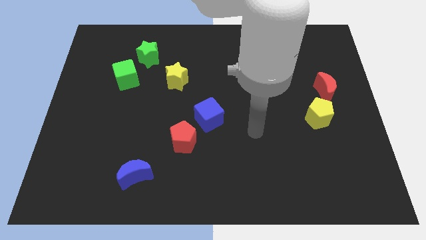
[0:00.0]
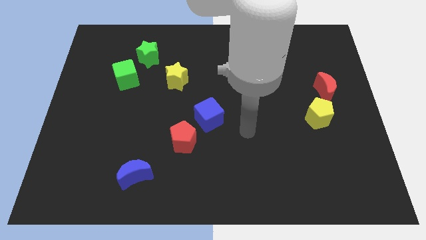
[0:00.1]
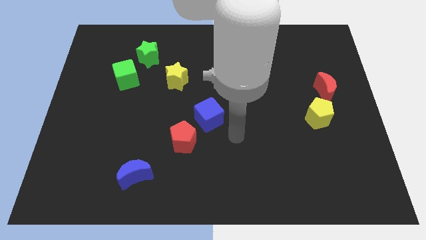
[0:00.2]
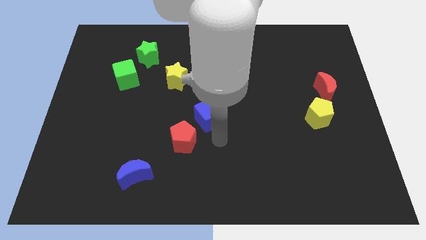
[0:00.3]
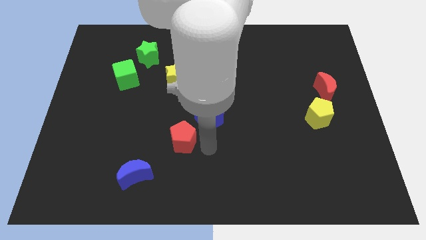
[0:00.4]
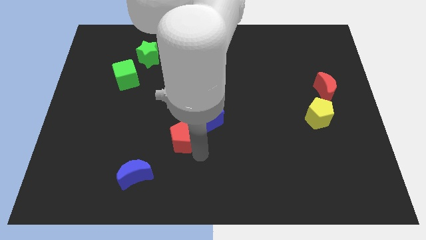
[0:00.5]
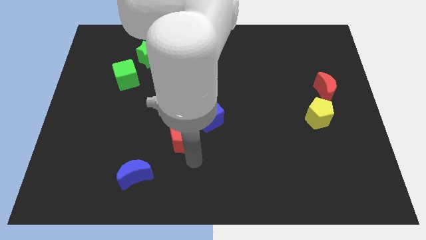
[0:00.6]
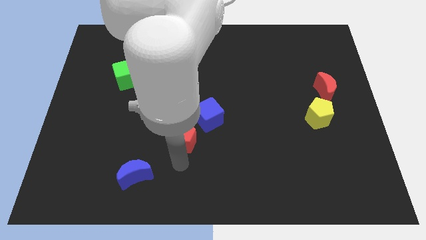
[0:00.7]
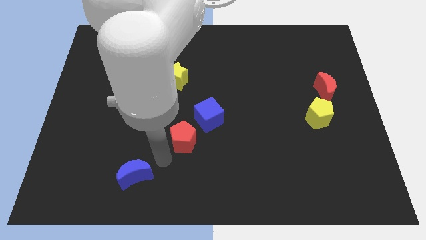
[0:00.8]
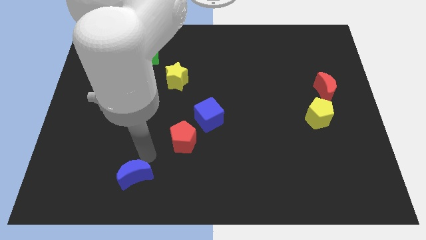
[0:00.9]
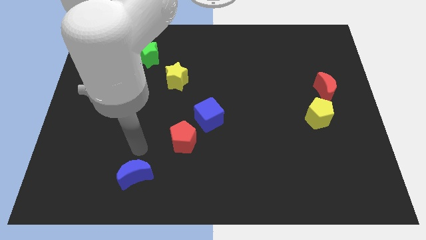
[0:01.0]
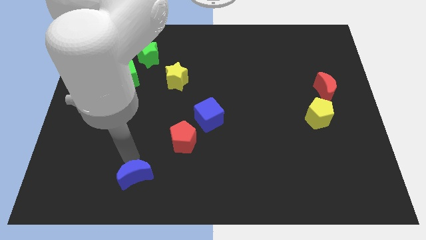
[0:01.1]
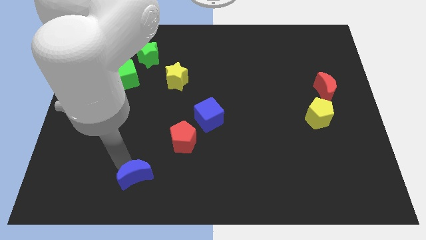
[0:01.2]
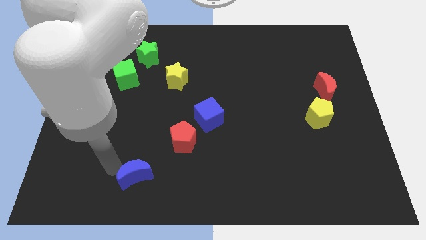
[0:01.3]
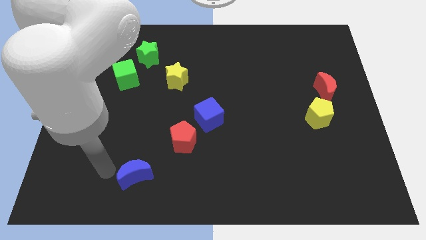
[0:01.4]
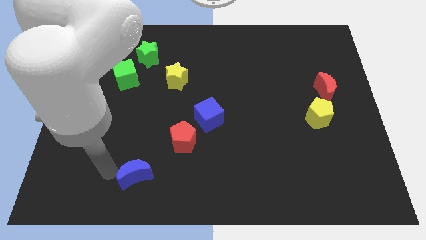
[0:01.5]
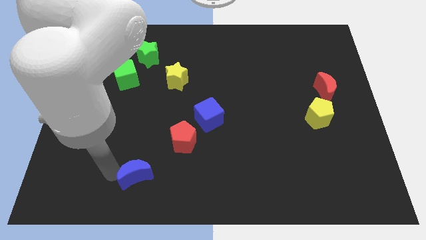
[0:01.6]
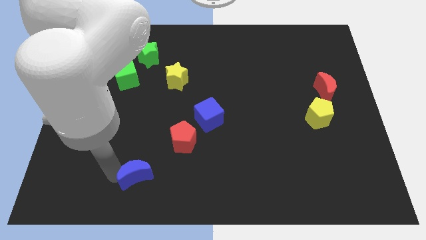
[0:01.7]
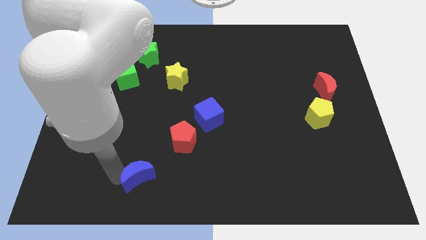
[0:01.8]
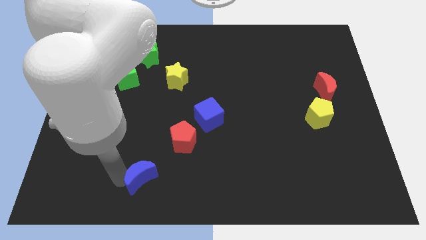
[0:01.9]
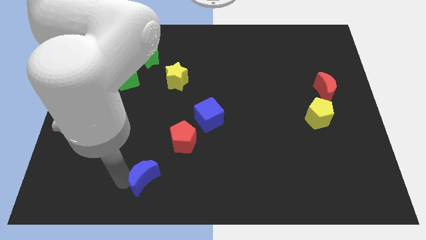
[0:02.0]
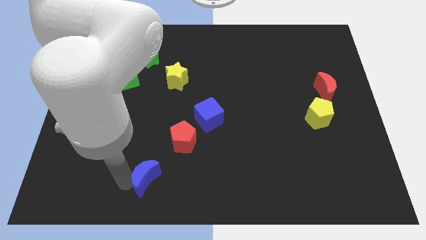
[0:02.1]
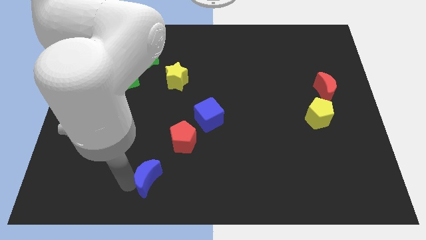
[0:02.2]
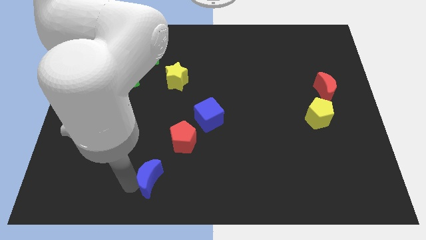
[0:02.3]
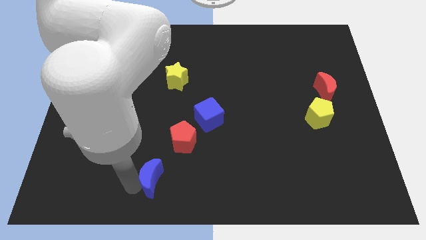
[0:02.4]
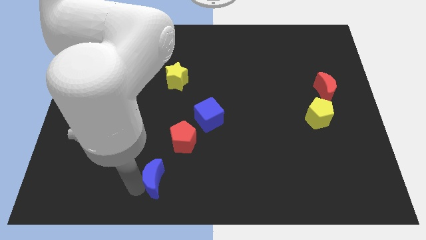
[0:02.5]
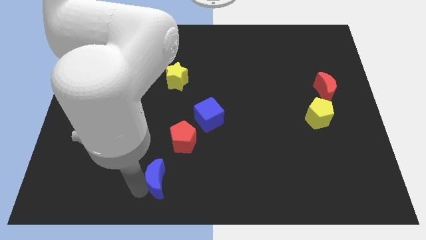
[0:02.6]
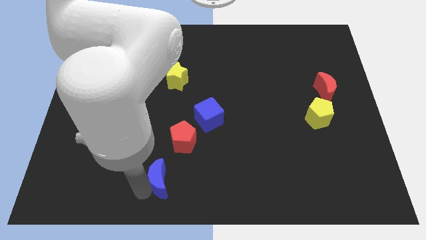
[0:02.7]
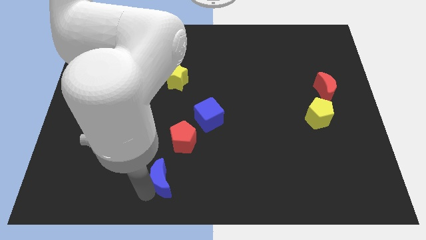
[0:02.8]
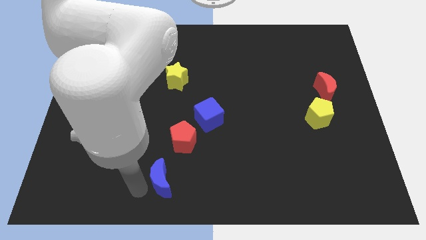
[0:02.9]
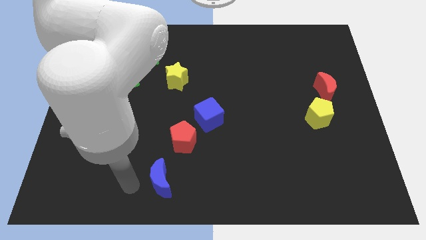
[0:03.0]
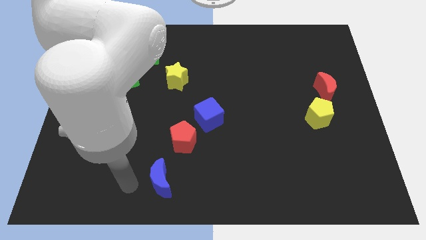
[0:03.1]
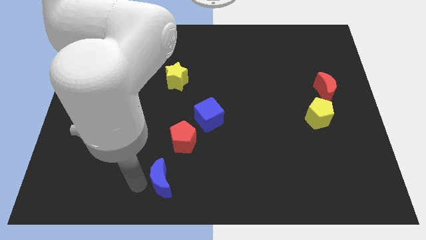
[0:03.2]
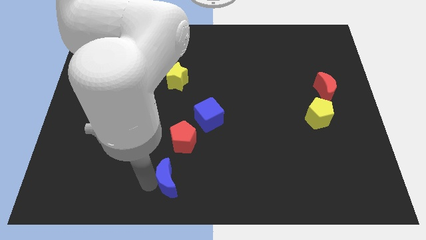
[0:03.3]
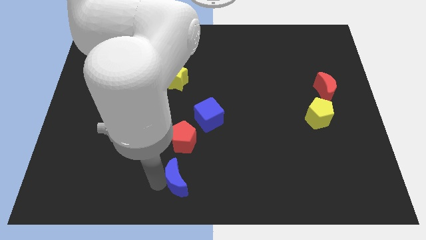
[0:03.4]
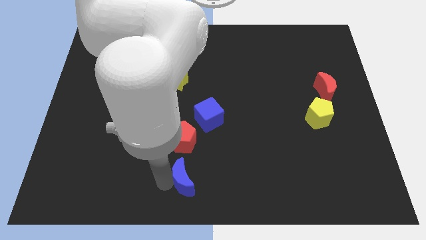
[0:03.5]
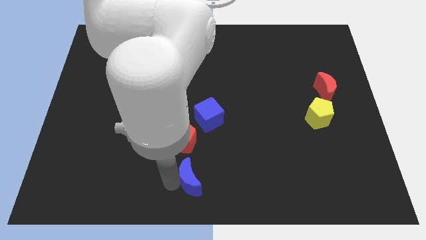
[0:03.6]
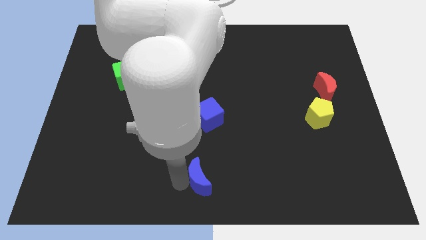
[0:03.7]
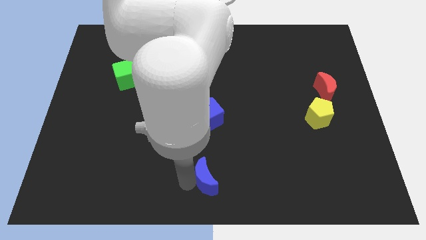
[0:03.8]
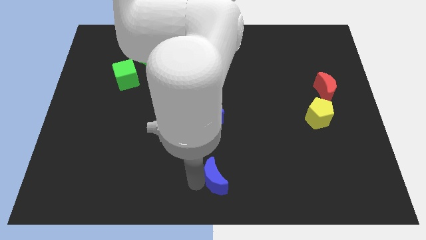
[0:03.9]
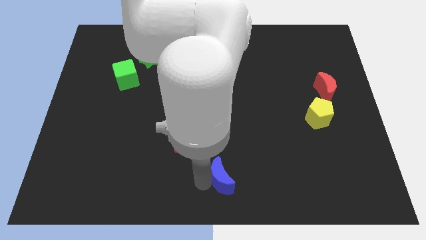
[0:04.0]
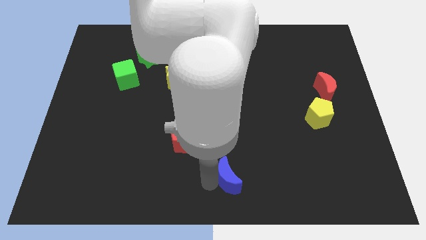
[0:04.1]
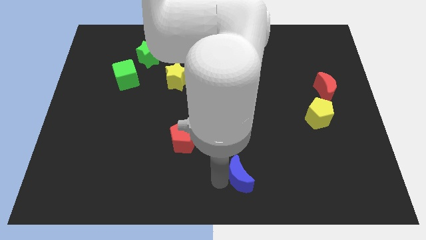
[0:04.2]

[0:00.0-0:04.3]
push the blue moon to the right

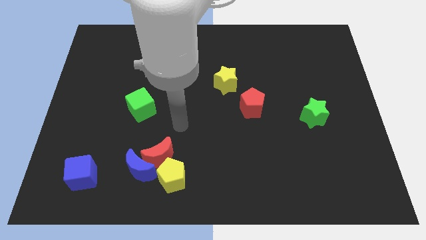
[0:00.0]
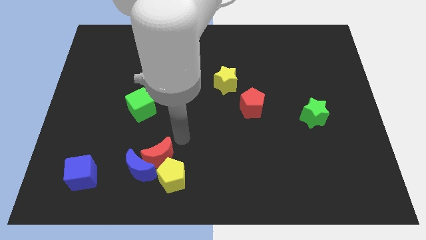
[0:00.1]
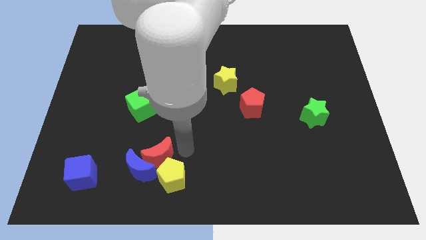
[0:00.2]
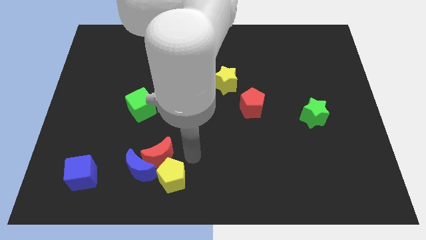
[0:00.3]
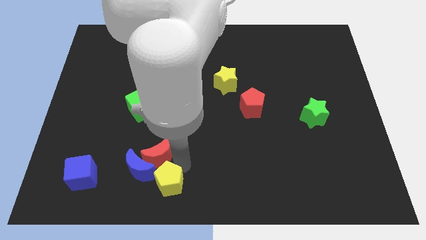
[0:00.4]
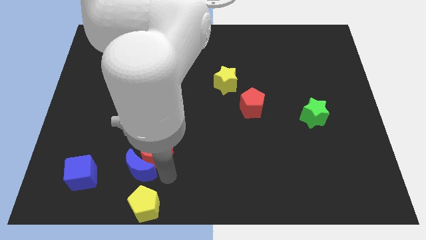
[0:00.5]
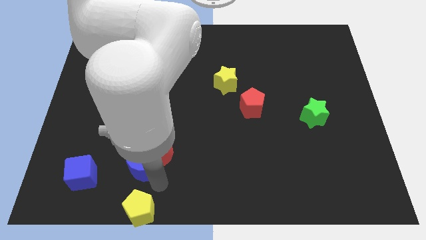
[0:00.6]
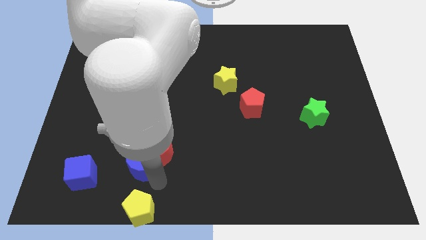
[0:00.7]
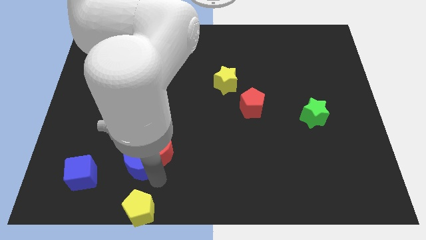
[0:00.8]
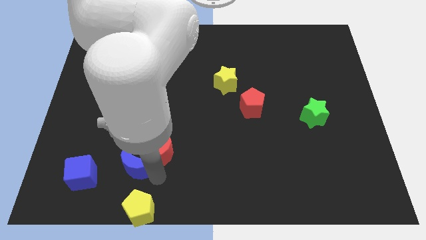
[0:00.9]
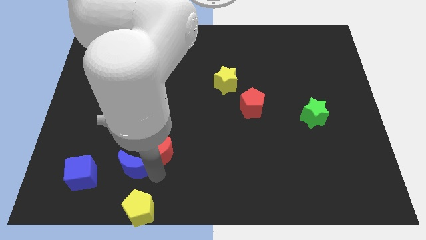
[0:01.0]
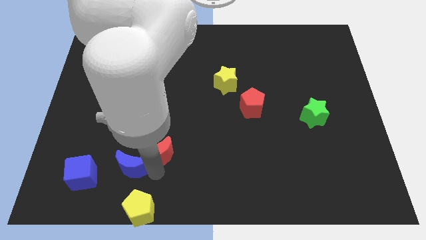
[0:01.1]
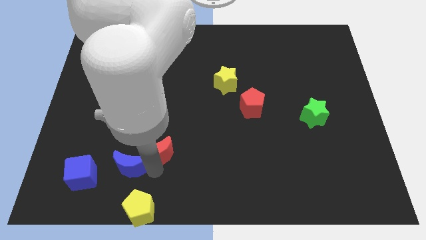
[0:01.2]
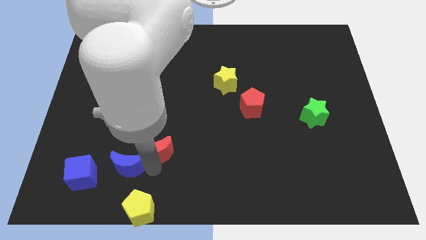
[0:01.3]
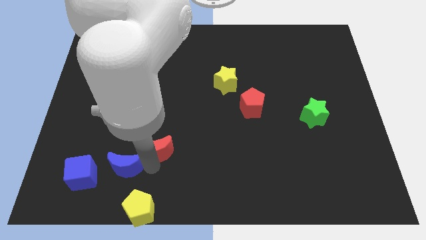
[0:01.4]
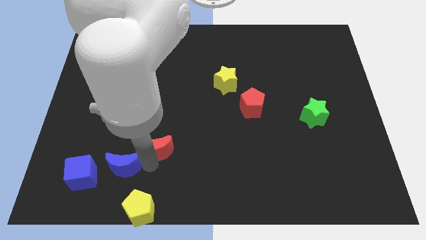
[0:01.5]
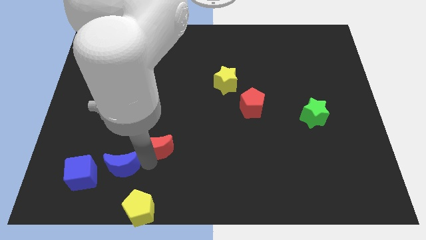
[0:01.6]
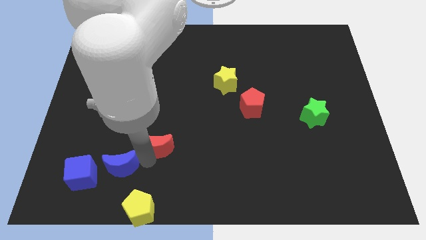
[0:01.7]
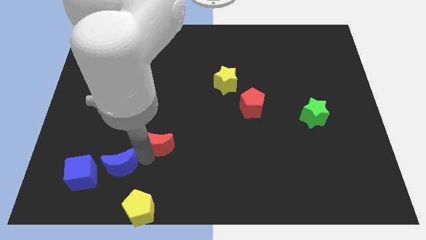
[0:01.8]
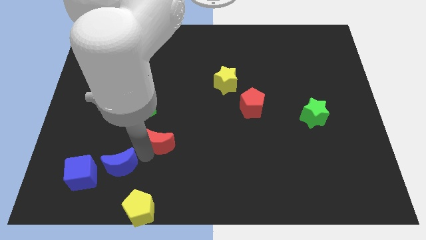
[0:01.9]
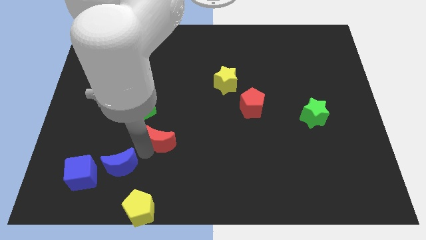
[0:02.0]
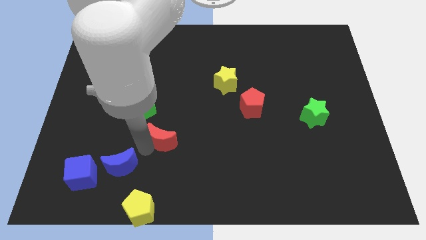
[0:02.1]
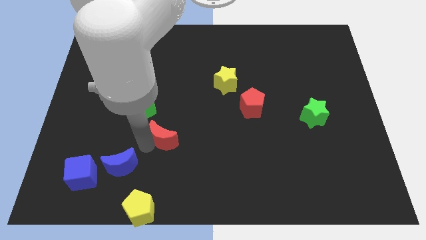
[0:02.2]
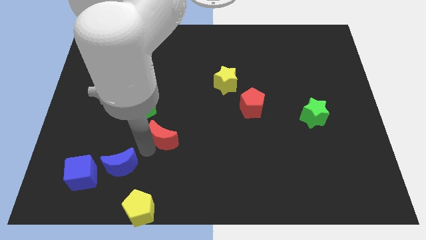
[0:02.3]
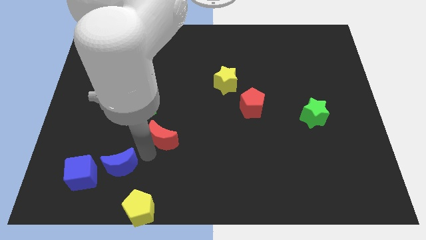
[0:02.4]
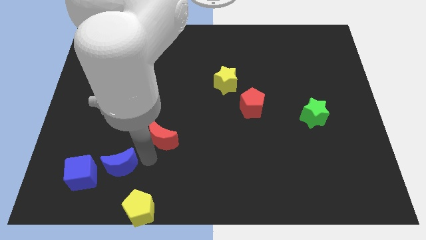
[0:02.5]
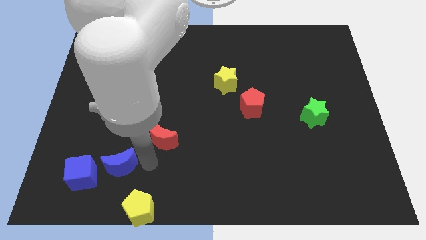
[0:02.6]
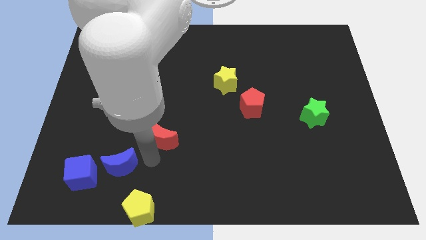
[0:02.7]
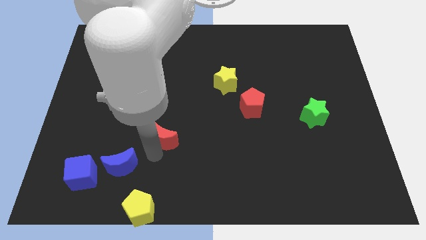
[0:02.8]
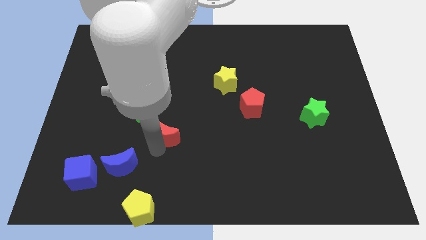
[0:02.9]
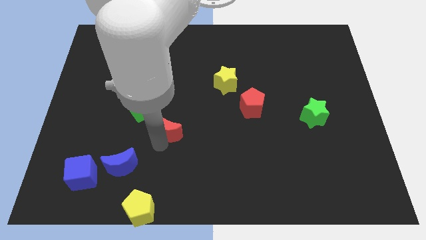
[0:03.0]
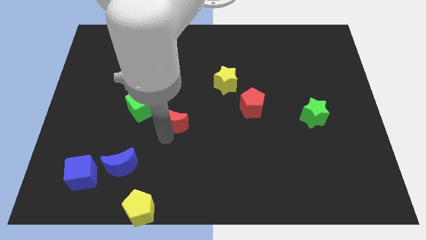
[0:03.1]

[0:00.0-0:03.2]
push the red moon upwards a little
